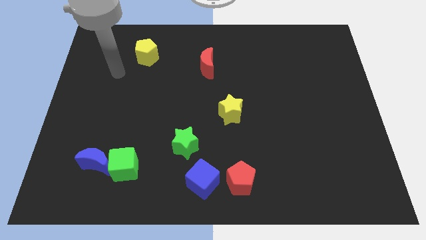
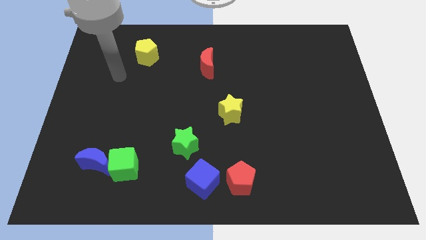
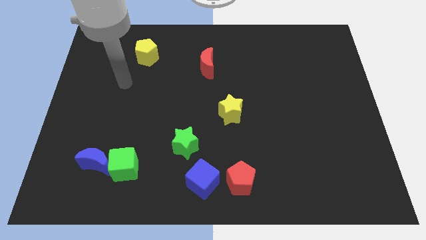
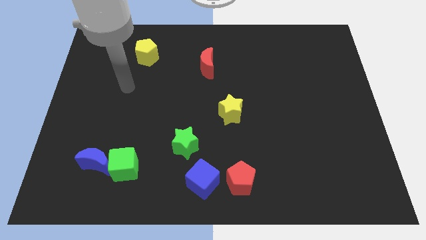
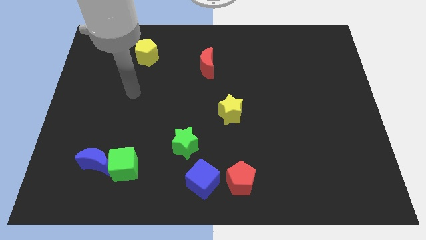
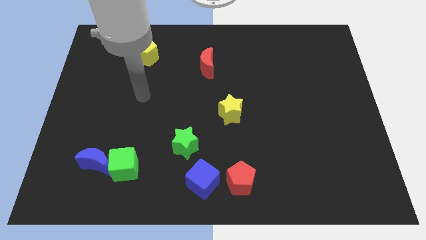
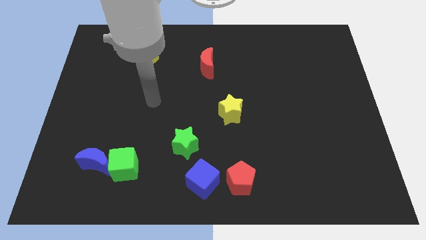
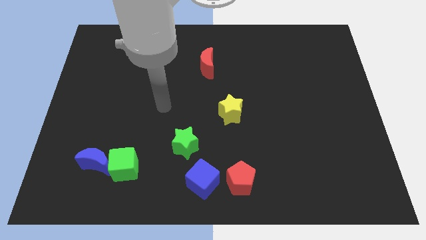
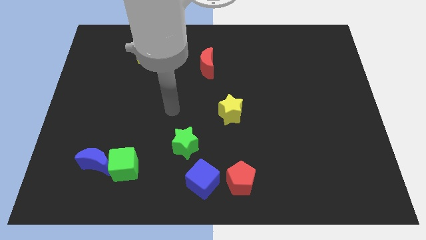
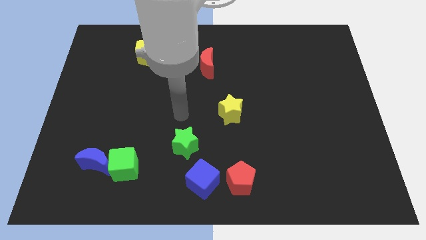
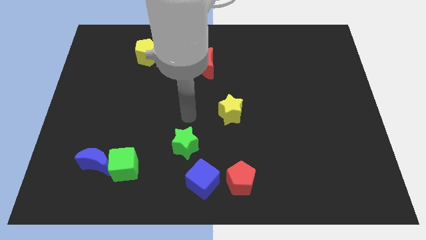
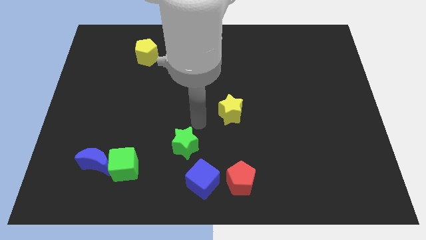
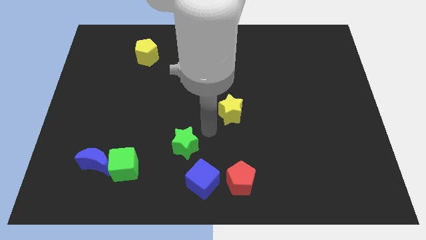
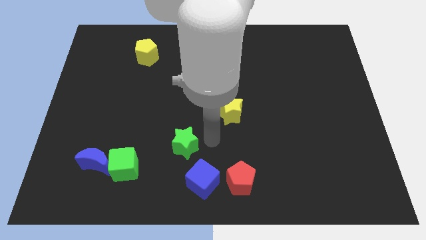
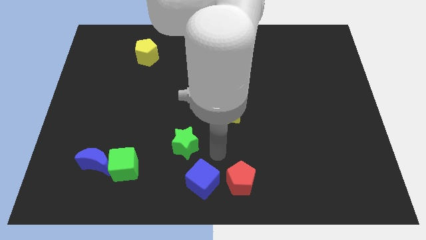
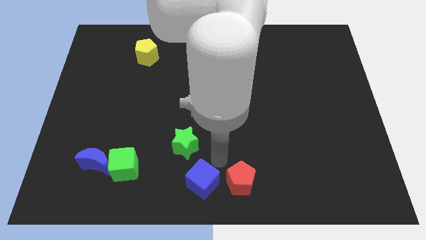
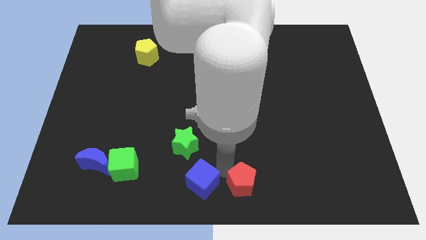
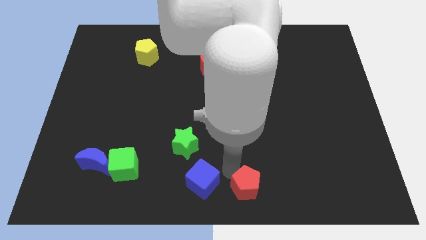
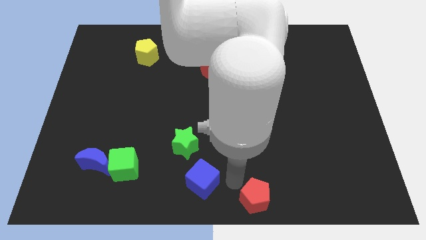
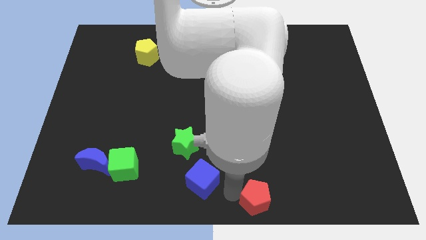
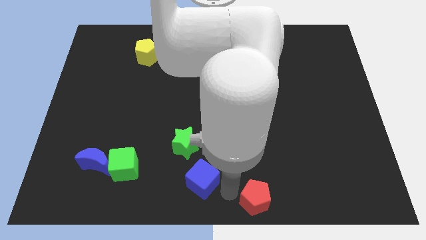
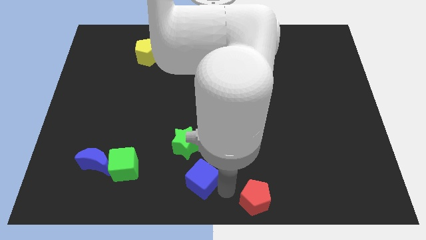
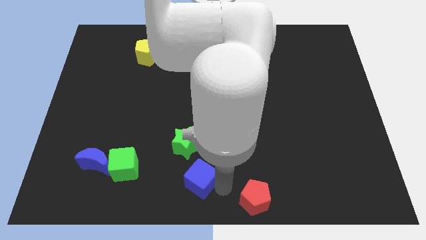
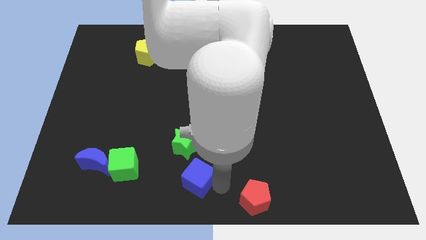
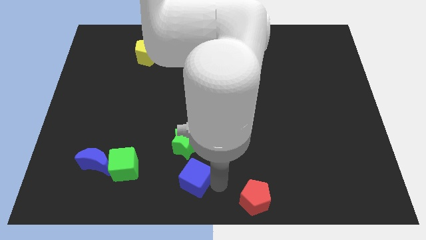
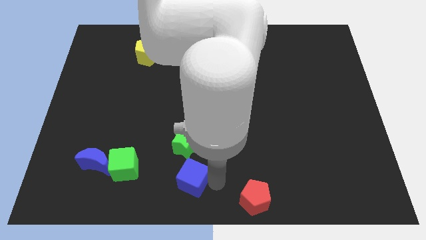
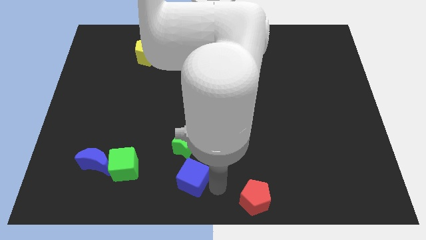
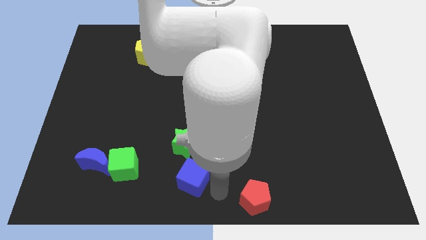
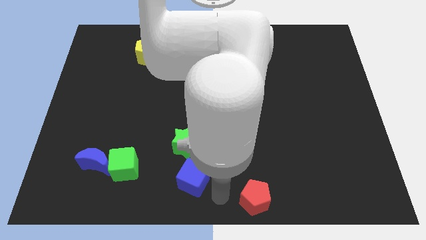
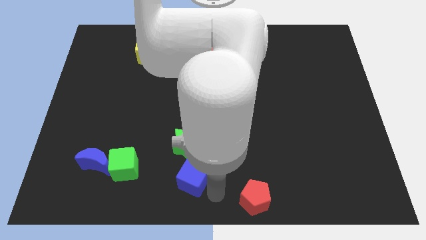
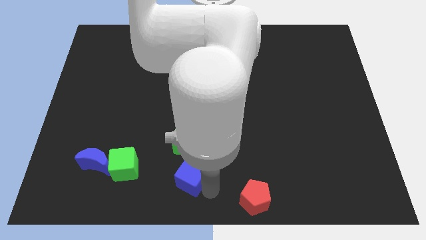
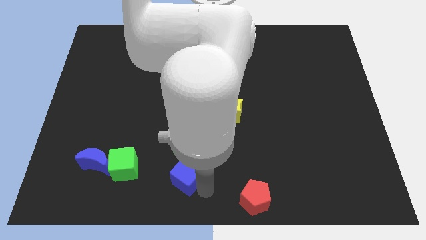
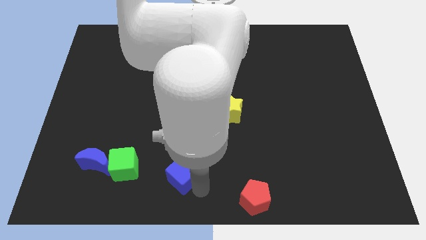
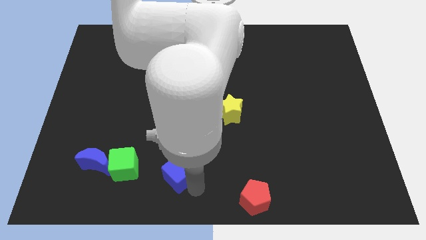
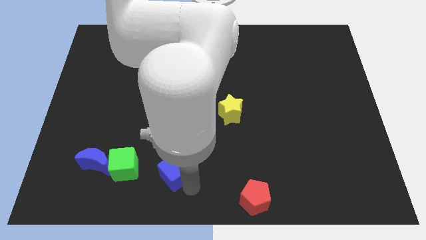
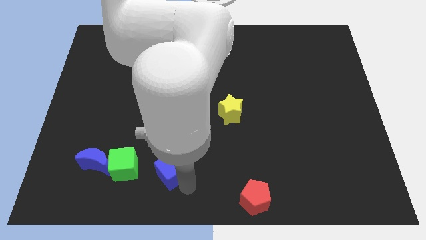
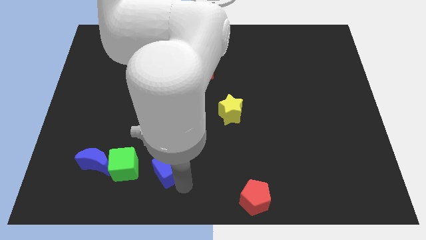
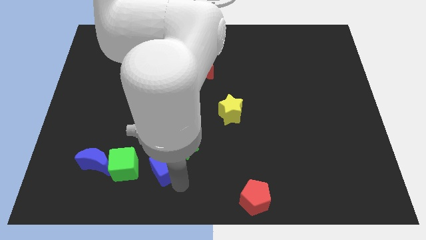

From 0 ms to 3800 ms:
slightly push the blue cube upwards and then left

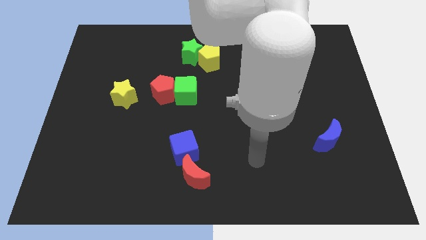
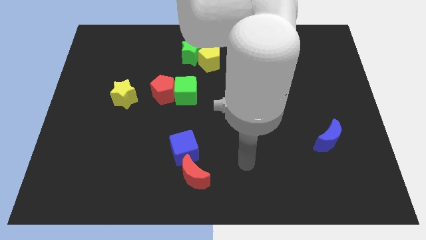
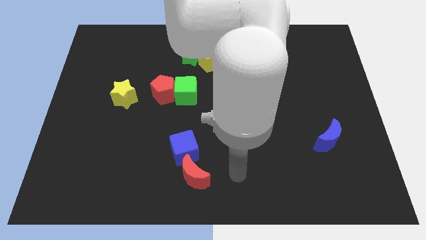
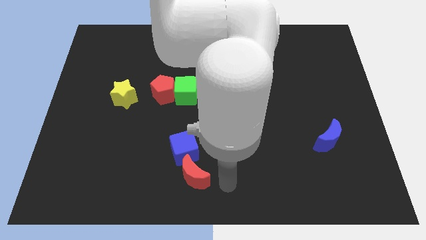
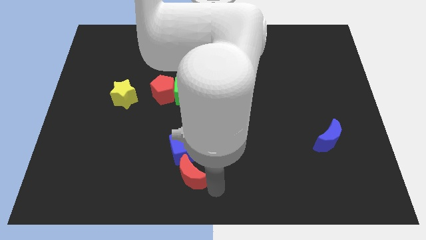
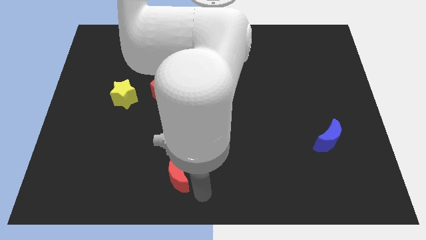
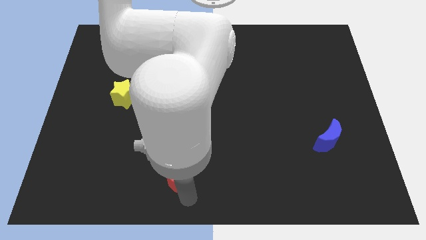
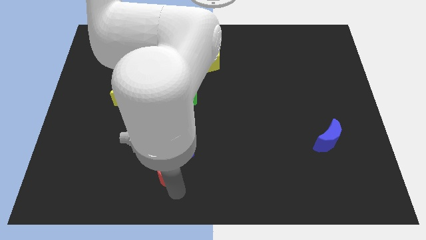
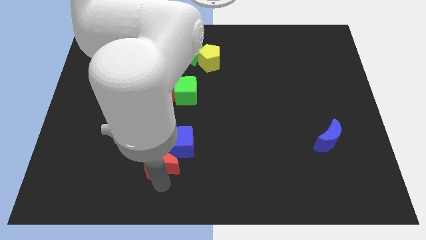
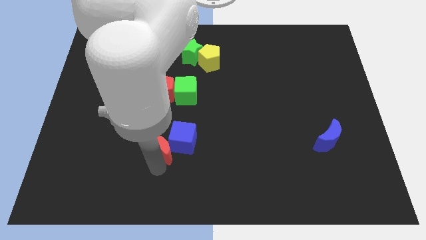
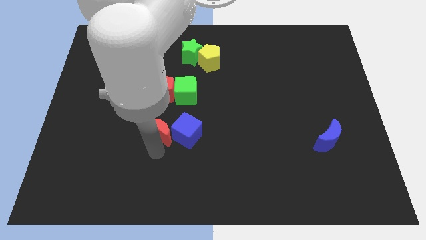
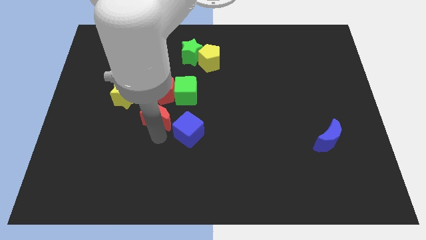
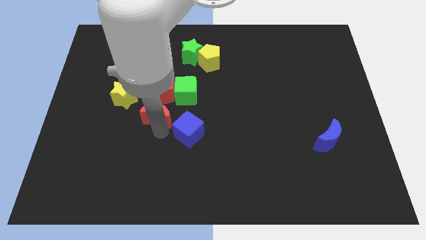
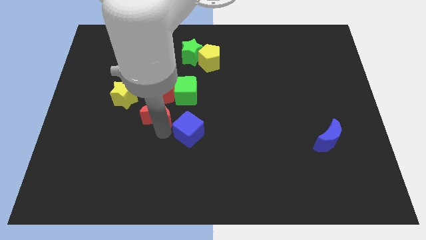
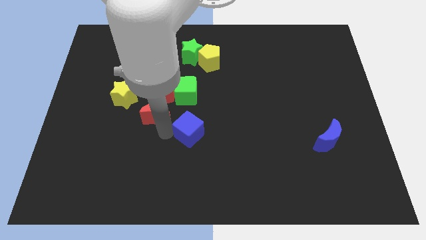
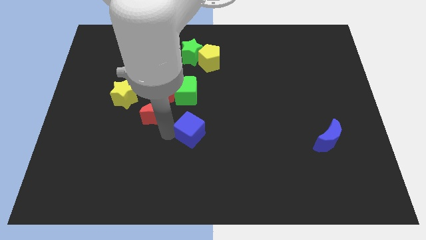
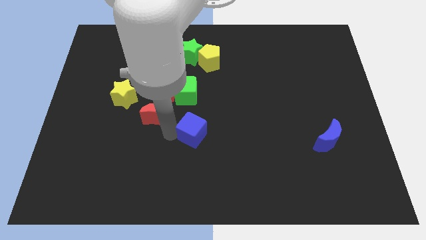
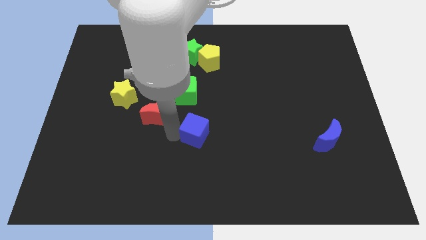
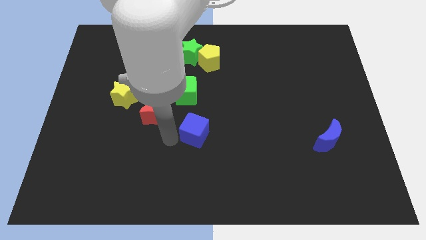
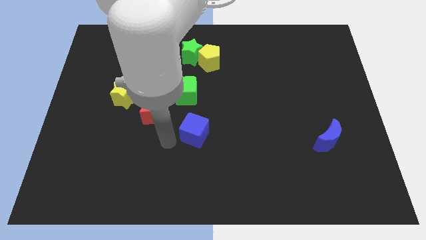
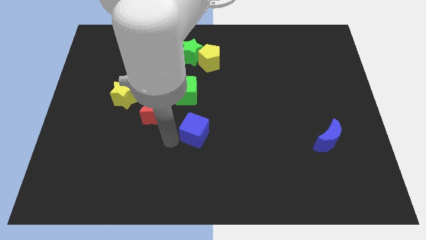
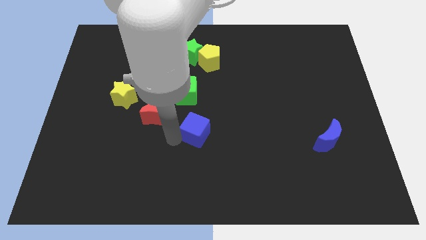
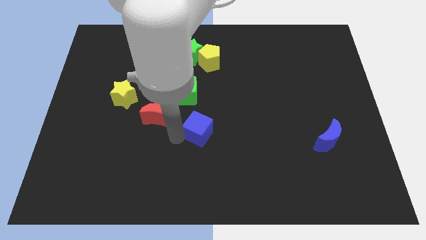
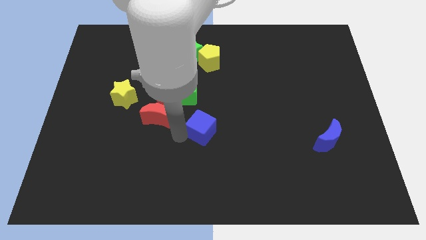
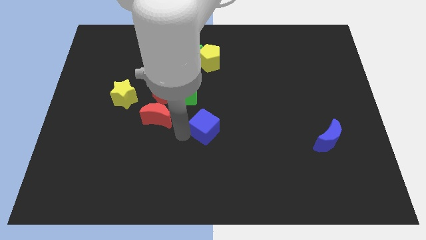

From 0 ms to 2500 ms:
move the blue cube a bit up and to the right diagonally

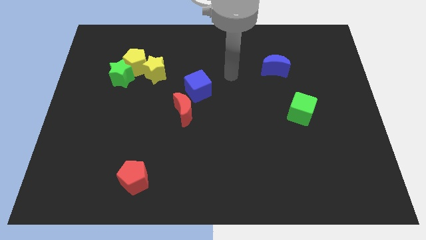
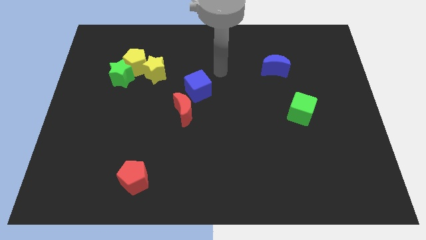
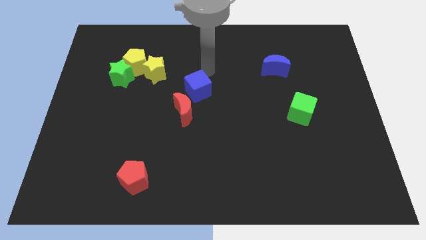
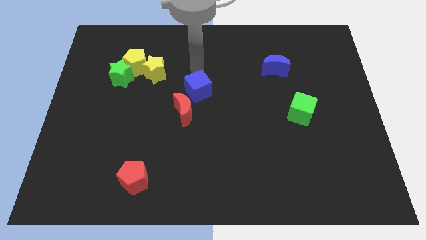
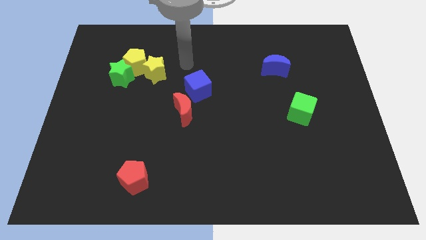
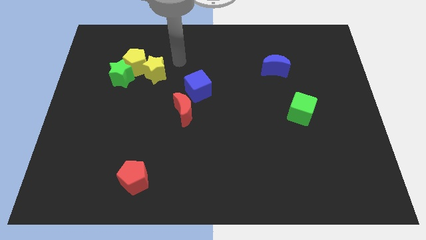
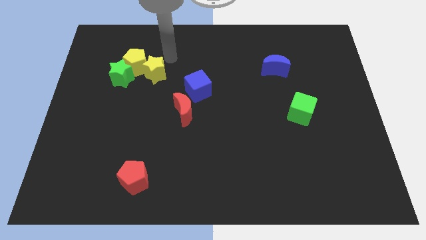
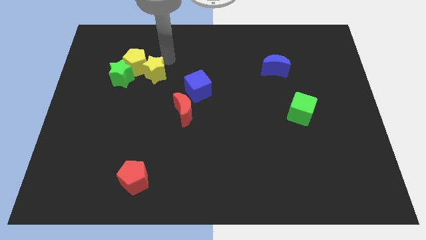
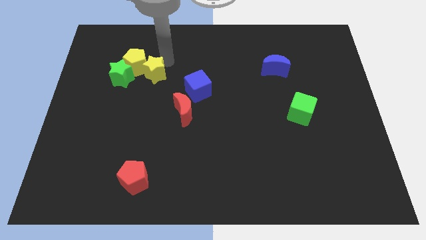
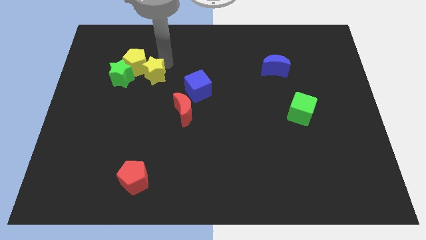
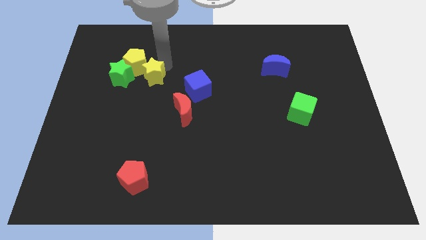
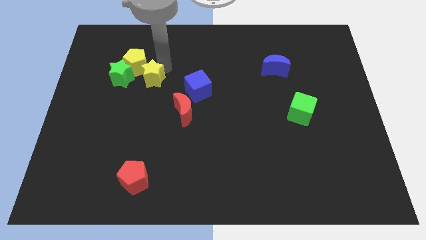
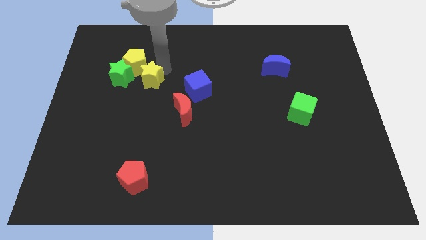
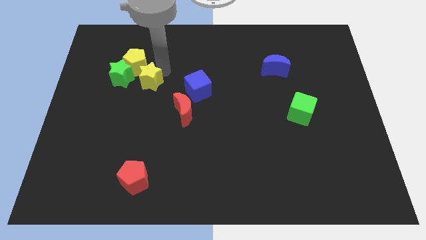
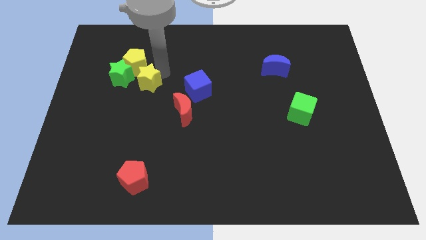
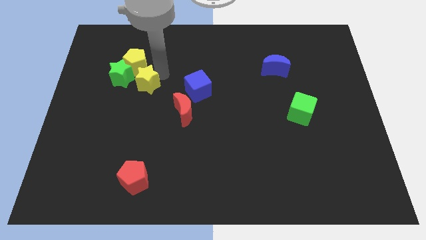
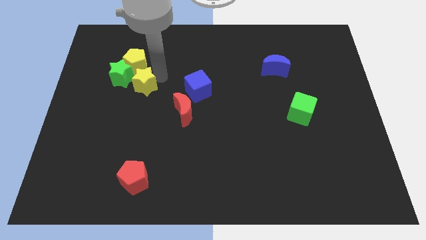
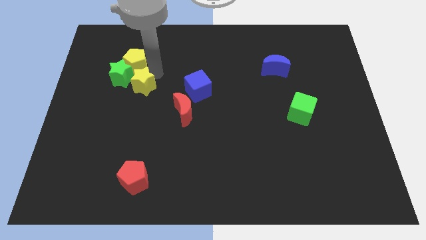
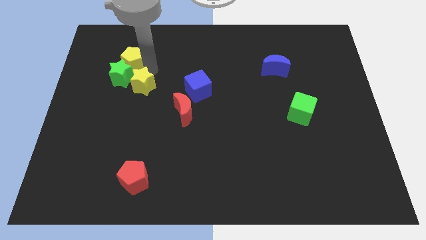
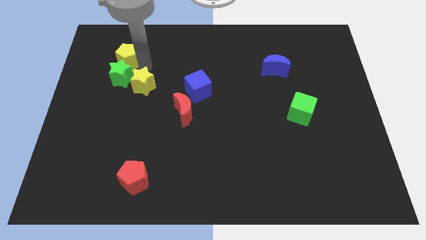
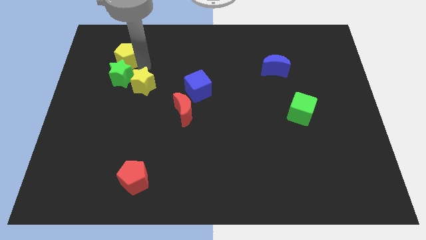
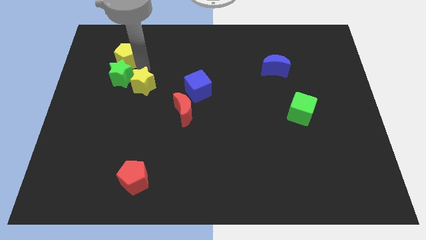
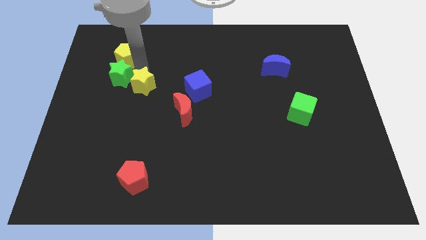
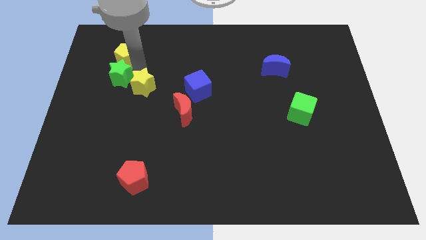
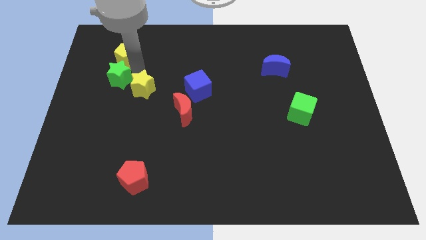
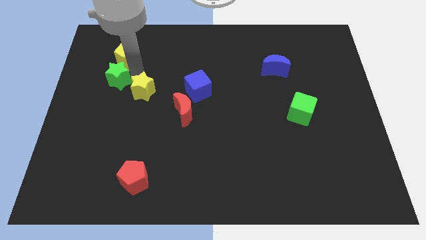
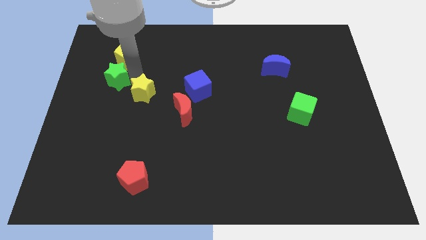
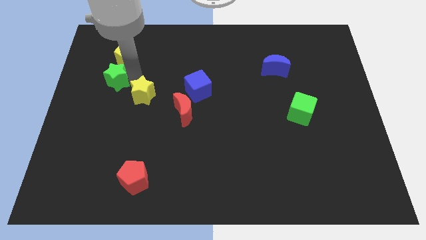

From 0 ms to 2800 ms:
slightly slide the yellow star down
